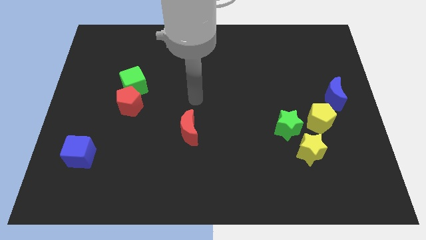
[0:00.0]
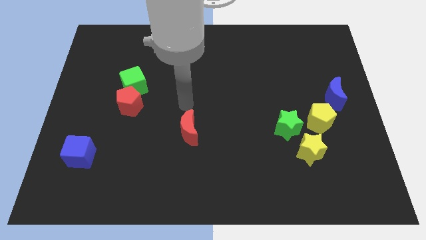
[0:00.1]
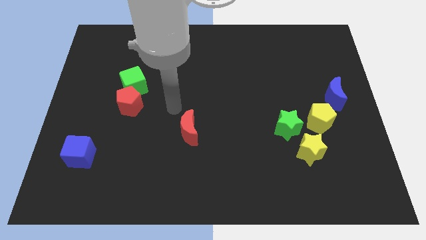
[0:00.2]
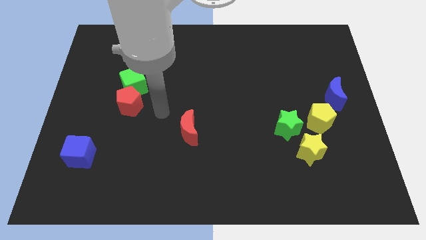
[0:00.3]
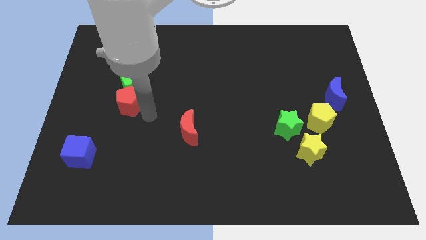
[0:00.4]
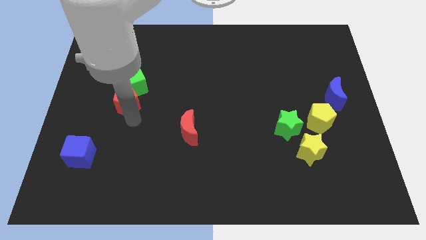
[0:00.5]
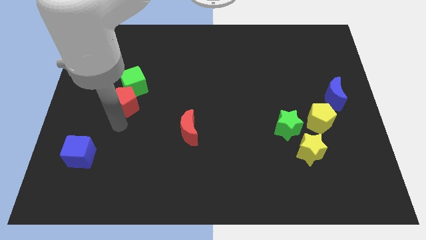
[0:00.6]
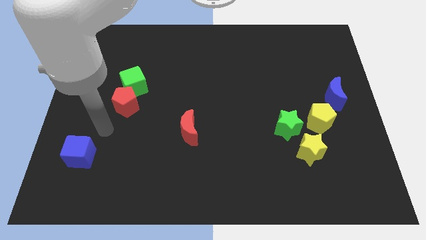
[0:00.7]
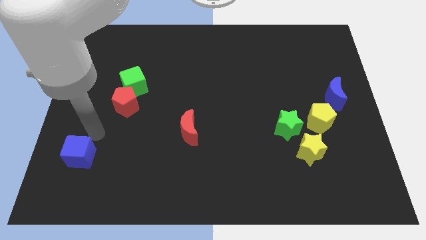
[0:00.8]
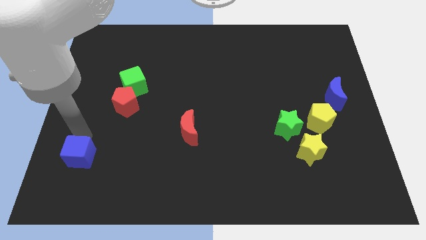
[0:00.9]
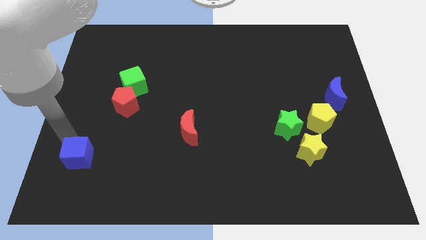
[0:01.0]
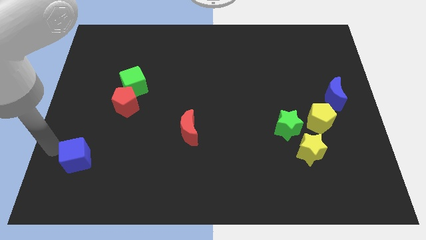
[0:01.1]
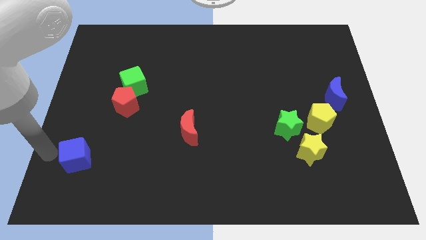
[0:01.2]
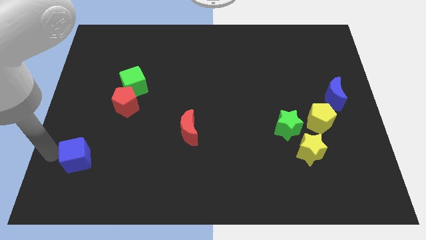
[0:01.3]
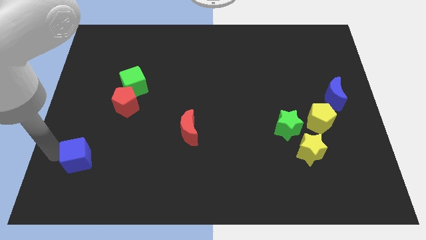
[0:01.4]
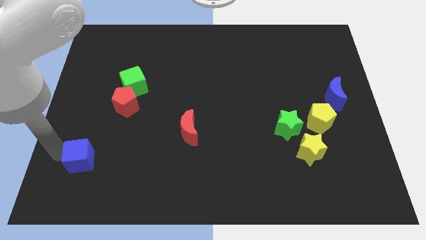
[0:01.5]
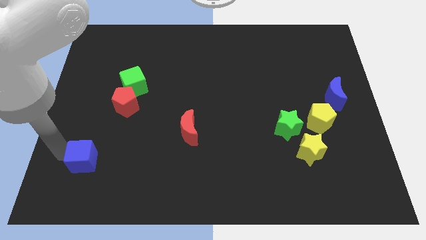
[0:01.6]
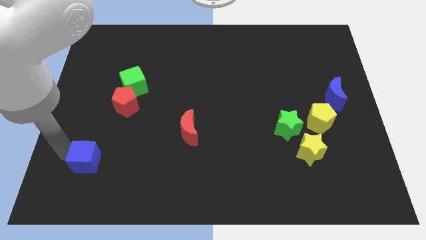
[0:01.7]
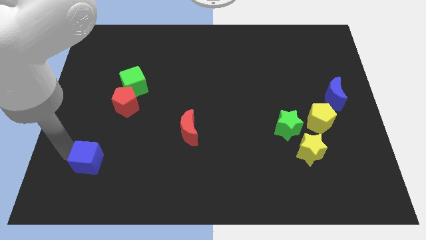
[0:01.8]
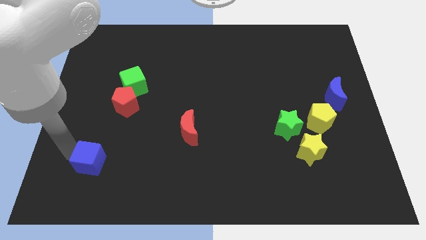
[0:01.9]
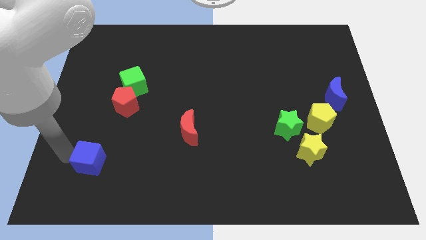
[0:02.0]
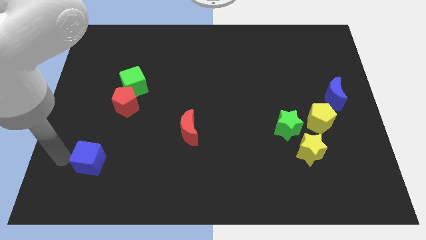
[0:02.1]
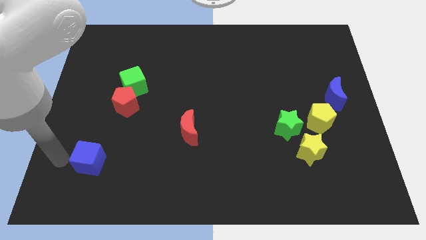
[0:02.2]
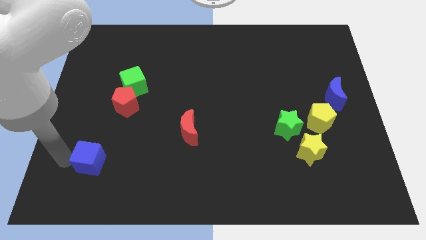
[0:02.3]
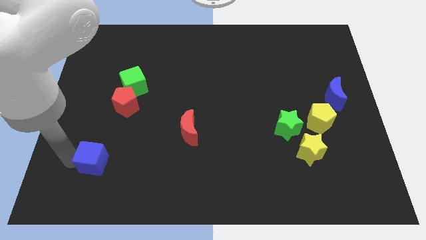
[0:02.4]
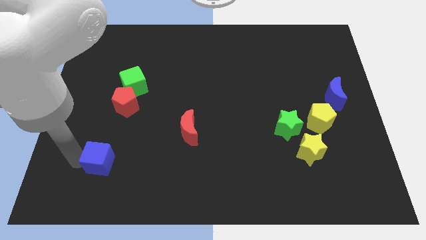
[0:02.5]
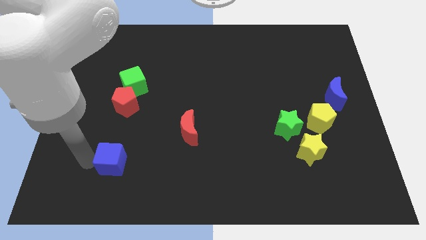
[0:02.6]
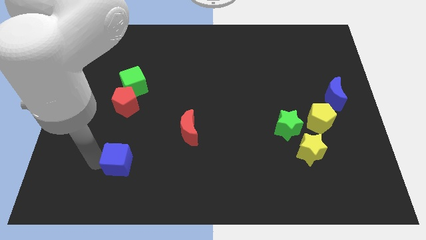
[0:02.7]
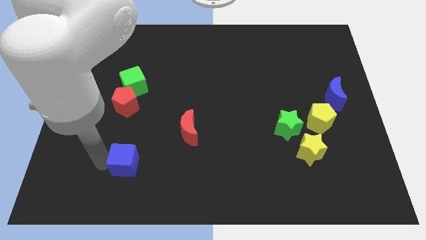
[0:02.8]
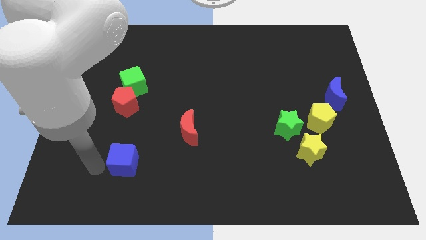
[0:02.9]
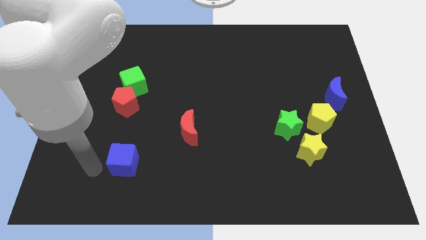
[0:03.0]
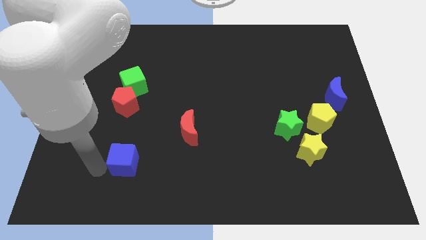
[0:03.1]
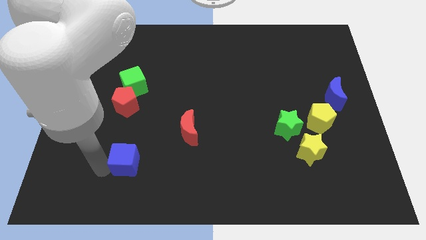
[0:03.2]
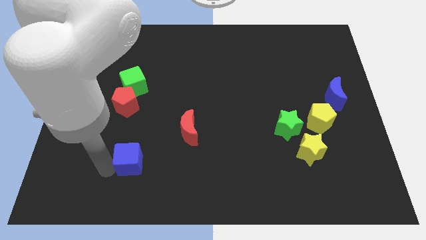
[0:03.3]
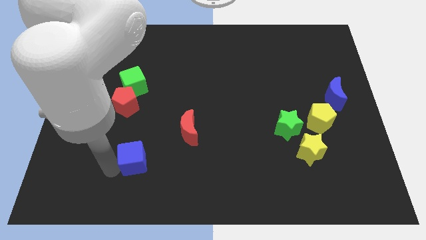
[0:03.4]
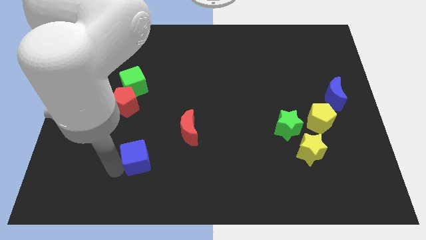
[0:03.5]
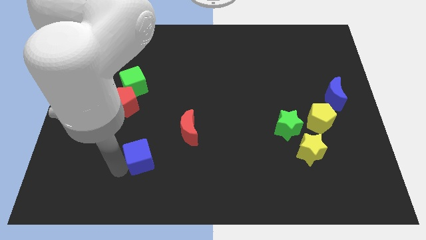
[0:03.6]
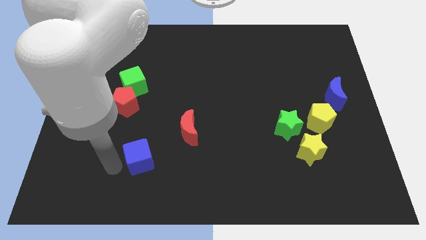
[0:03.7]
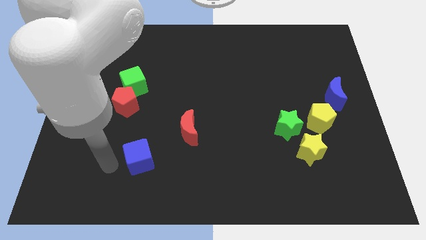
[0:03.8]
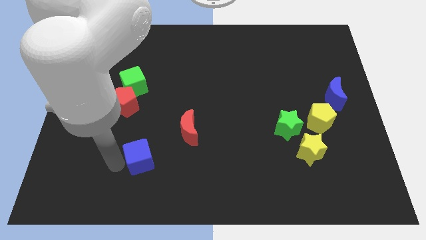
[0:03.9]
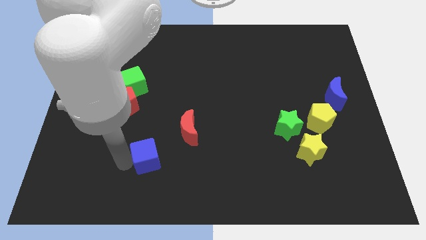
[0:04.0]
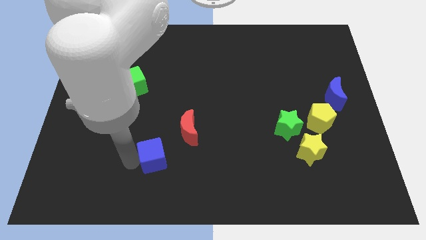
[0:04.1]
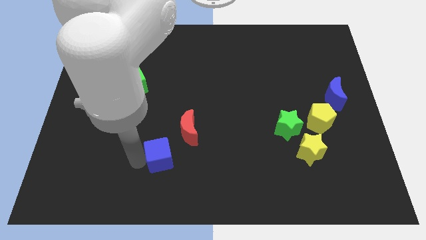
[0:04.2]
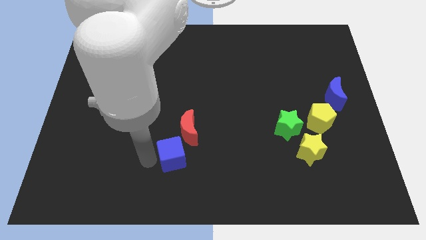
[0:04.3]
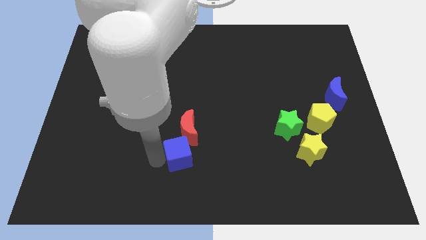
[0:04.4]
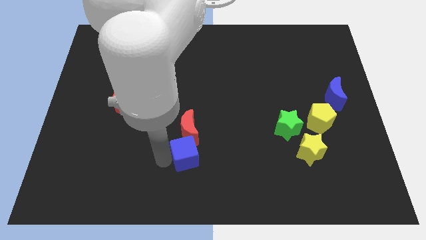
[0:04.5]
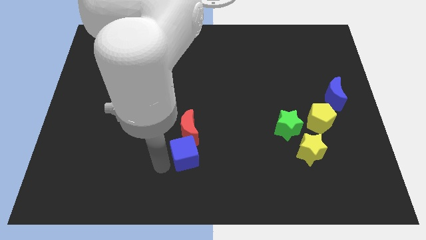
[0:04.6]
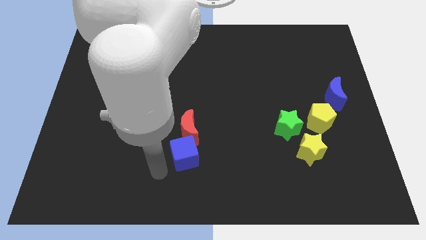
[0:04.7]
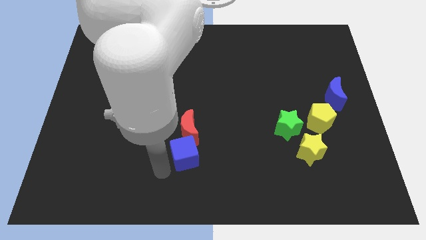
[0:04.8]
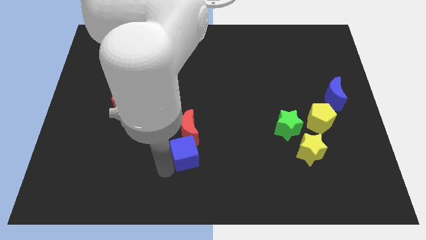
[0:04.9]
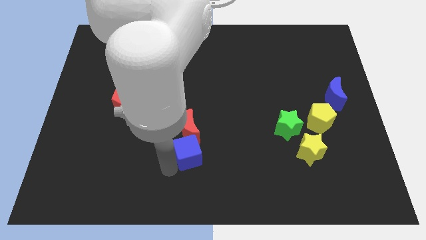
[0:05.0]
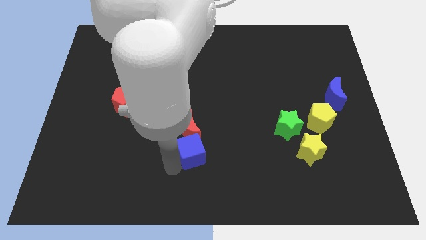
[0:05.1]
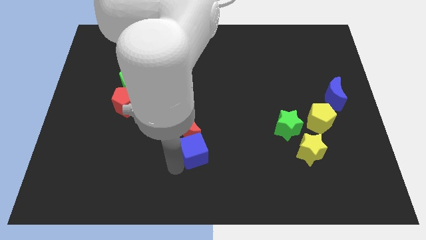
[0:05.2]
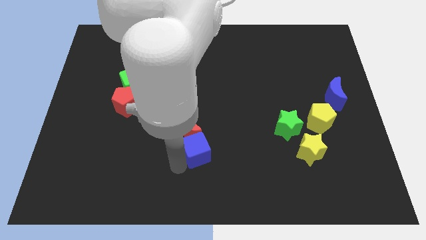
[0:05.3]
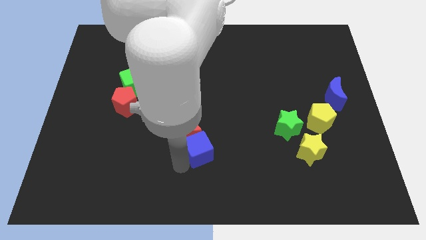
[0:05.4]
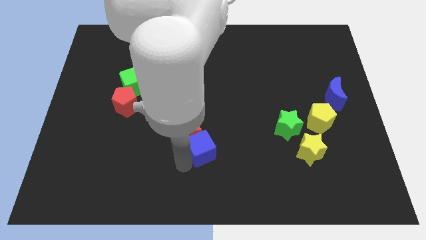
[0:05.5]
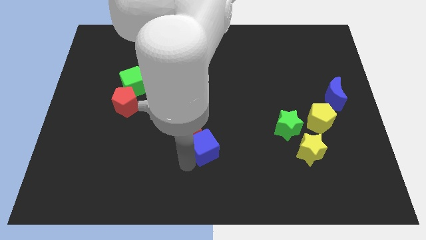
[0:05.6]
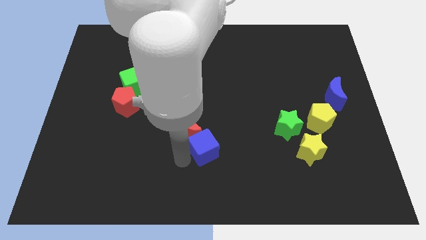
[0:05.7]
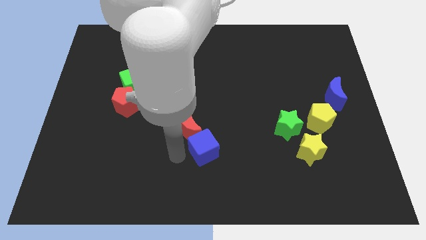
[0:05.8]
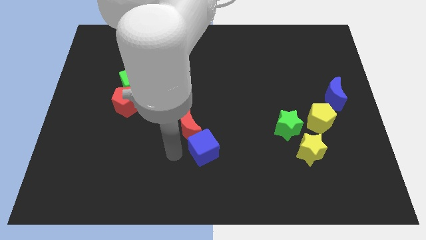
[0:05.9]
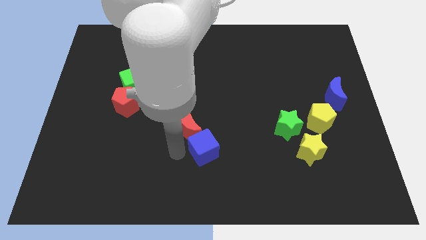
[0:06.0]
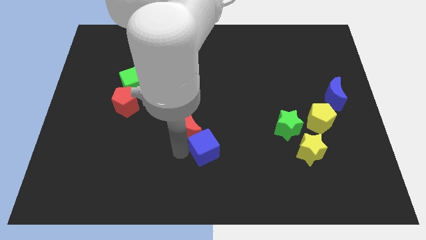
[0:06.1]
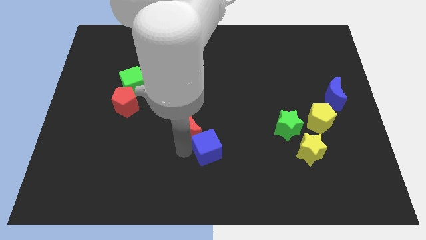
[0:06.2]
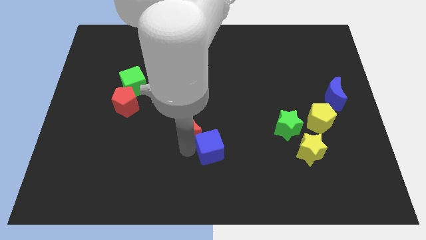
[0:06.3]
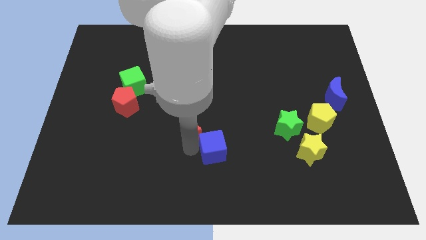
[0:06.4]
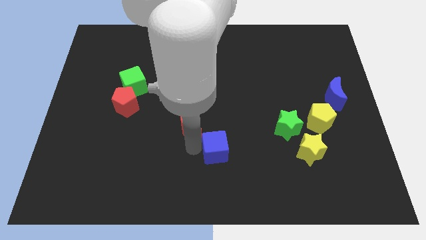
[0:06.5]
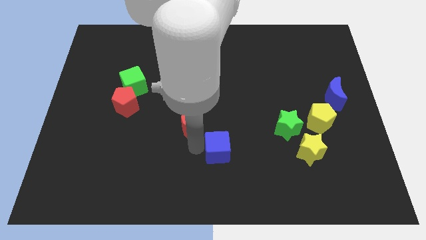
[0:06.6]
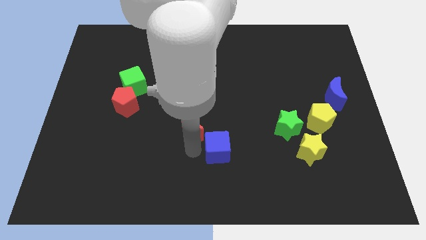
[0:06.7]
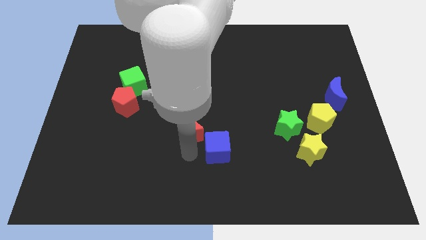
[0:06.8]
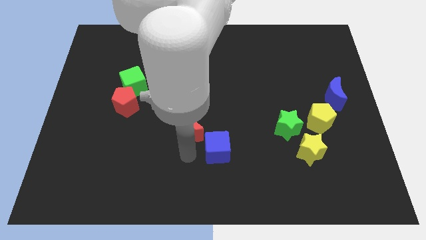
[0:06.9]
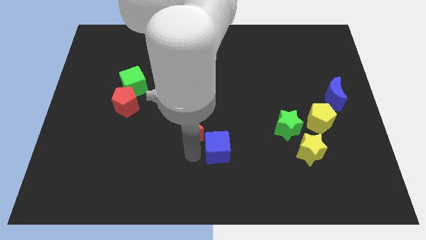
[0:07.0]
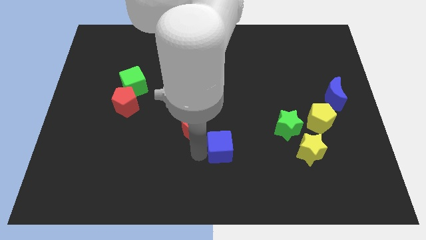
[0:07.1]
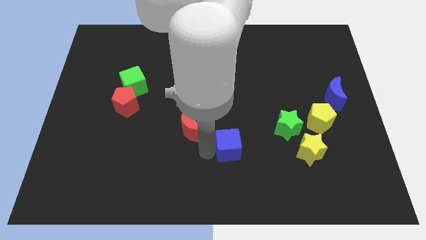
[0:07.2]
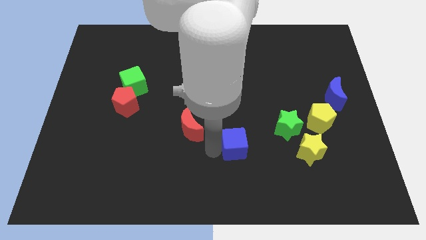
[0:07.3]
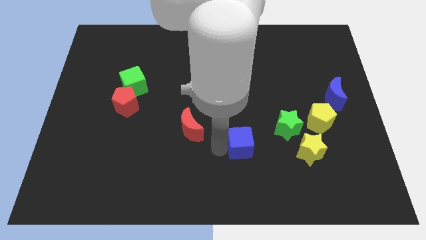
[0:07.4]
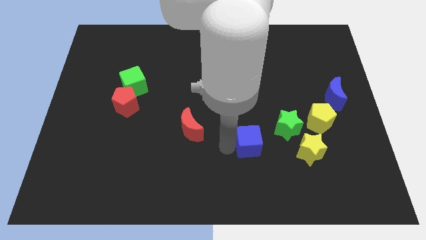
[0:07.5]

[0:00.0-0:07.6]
slide the blue cube diagonally down and to the left of the green star

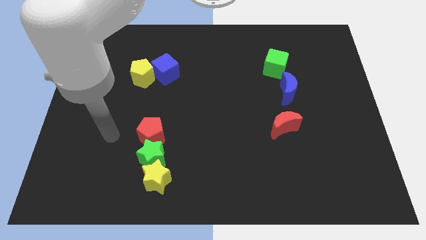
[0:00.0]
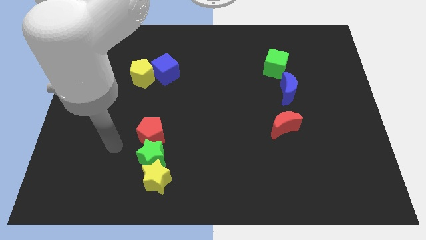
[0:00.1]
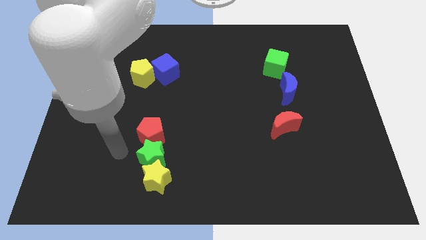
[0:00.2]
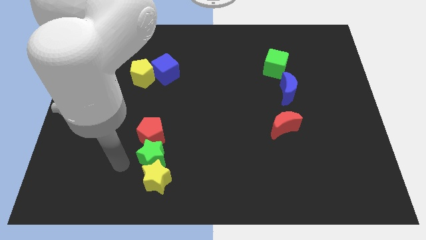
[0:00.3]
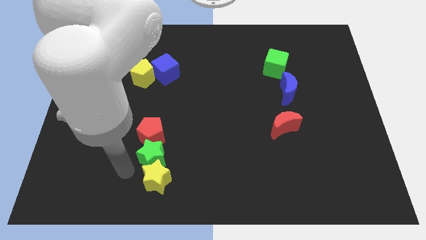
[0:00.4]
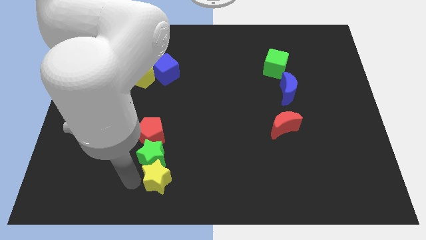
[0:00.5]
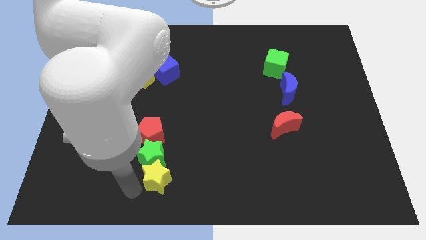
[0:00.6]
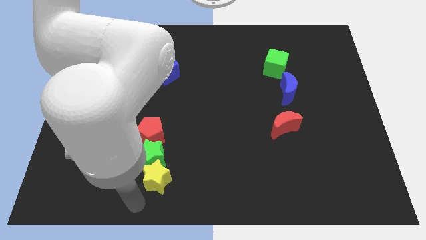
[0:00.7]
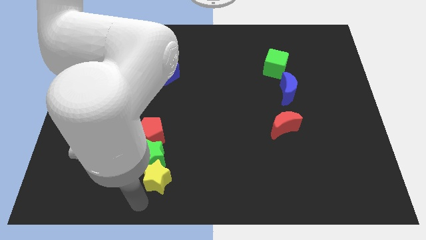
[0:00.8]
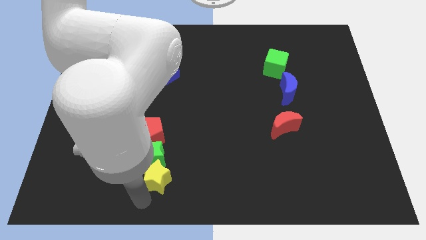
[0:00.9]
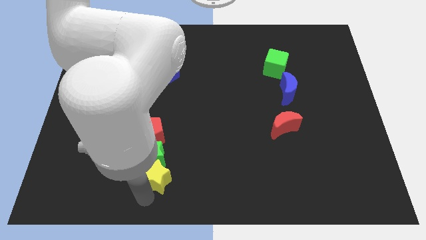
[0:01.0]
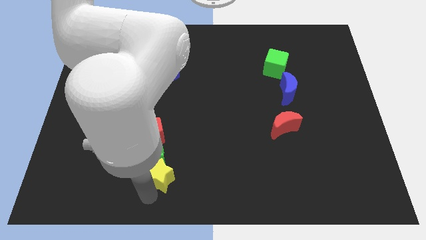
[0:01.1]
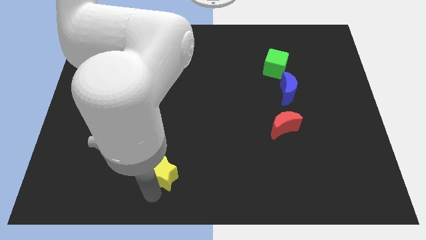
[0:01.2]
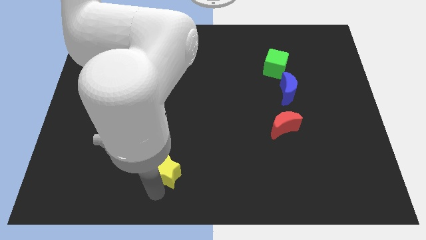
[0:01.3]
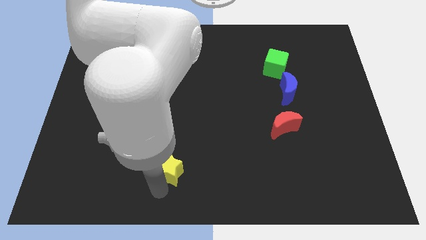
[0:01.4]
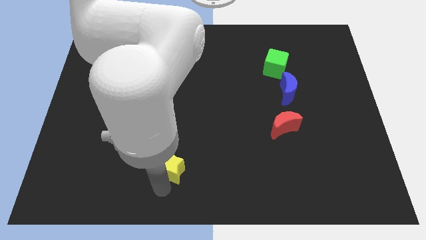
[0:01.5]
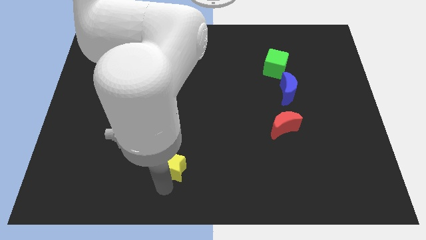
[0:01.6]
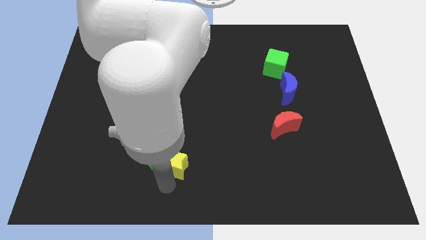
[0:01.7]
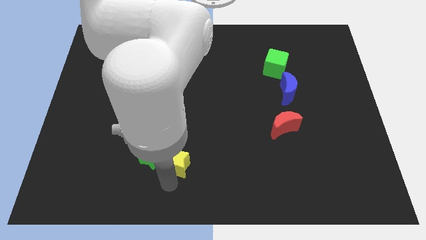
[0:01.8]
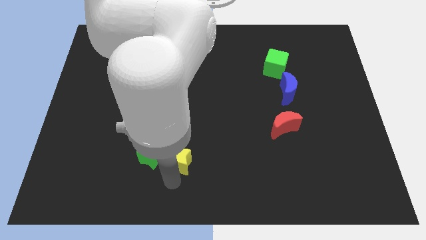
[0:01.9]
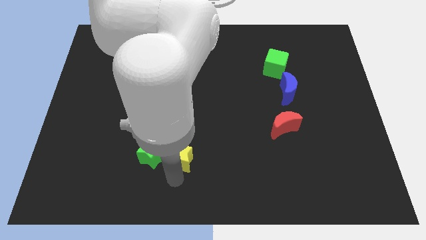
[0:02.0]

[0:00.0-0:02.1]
move the yellow star to the top right side of the green star
